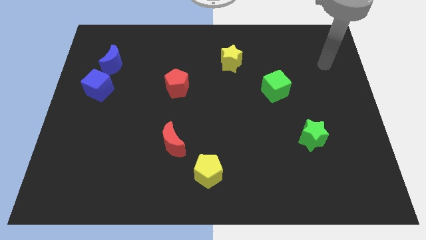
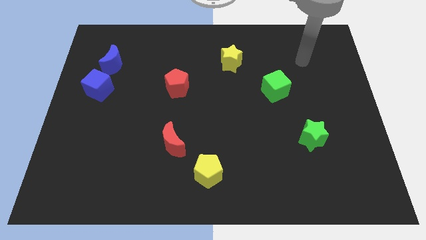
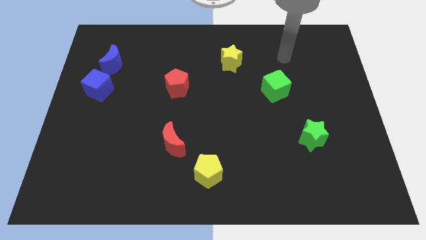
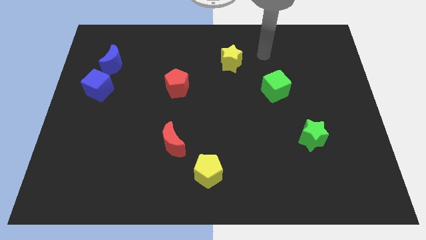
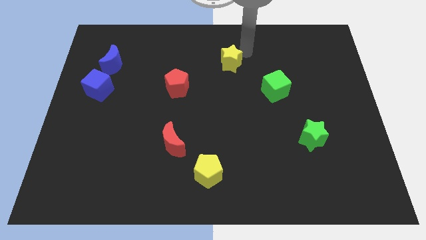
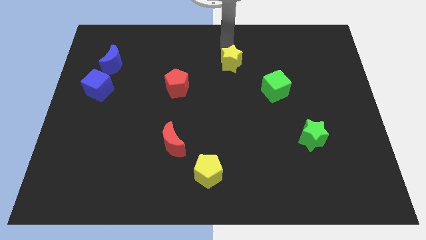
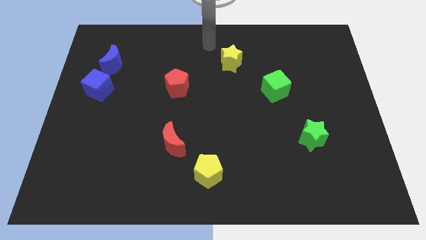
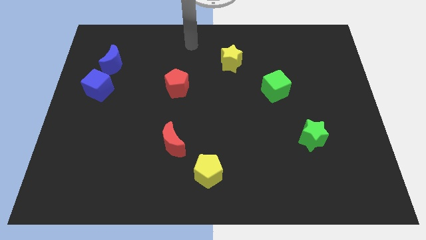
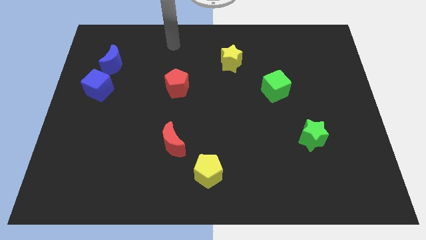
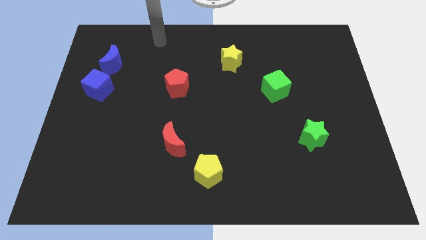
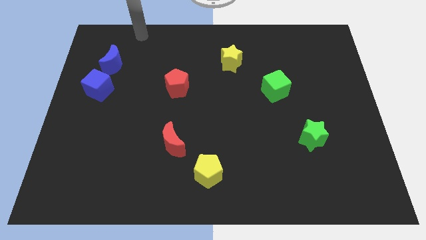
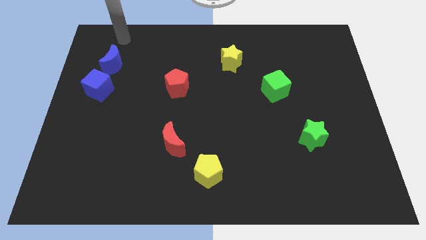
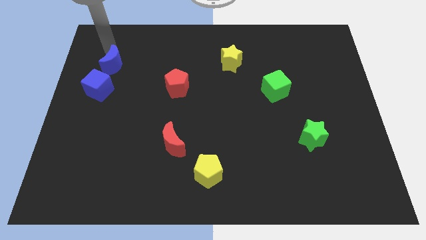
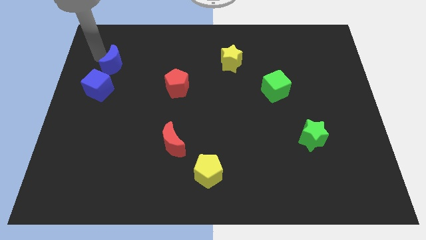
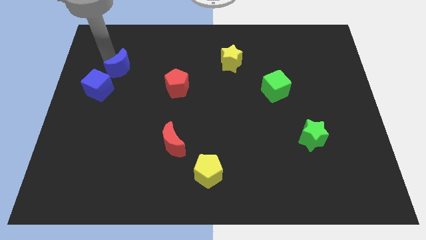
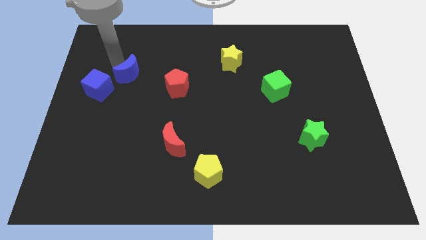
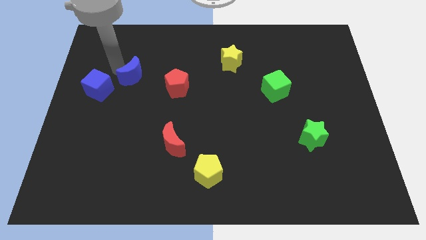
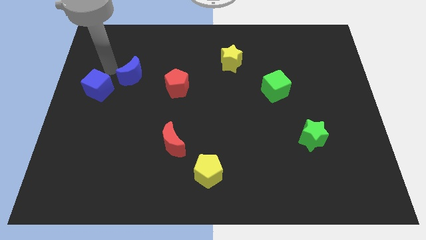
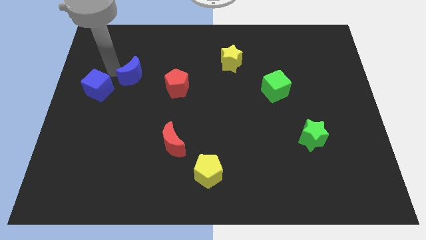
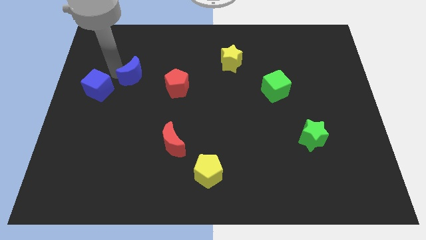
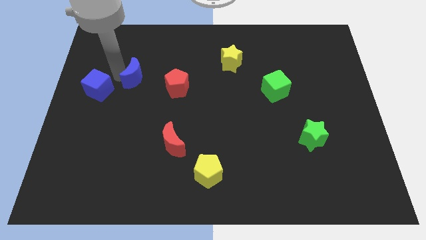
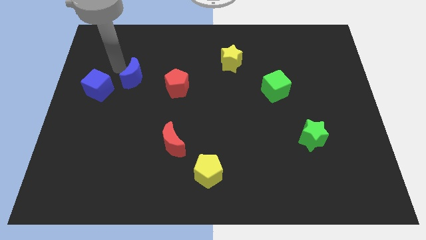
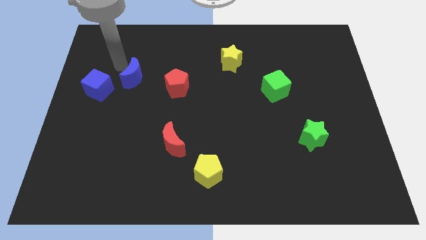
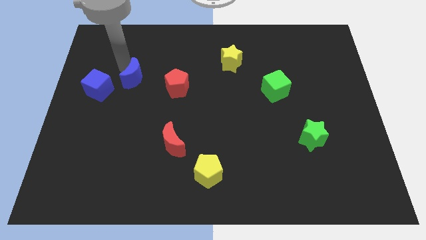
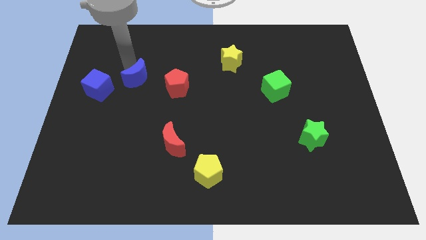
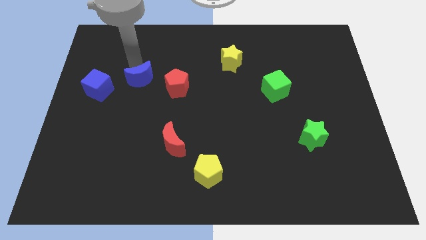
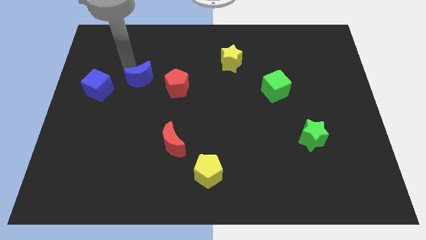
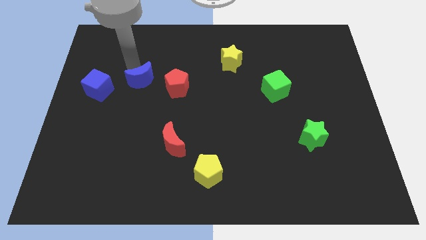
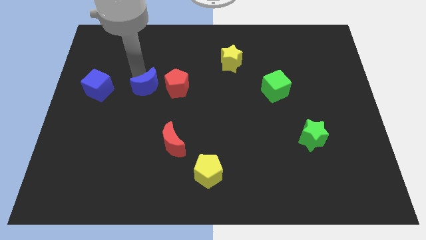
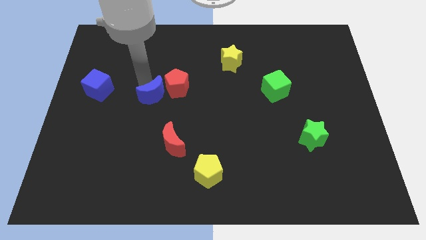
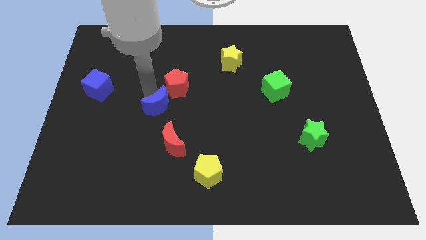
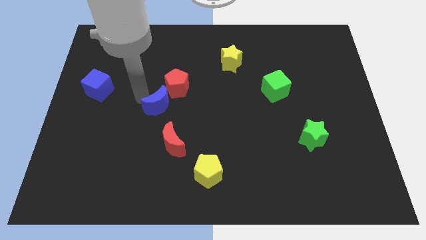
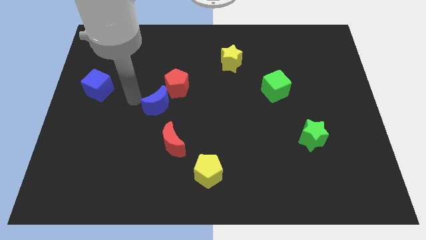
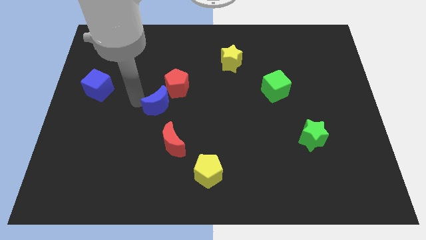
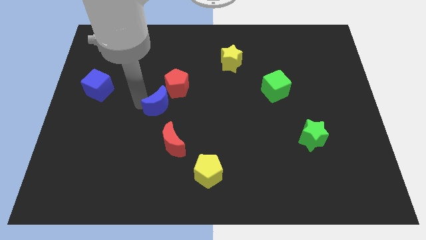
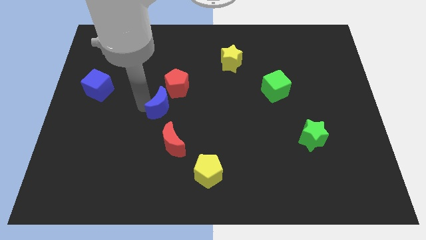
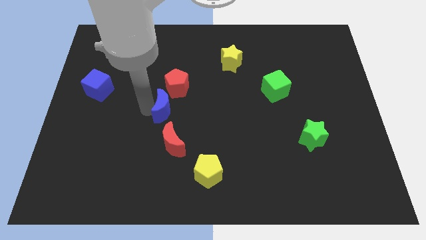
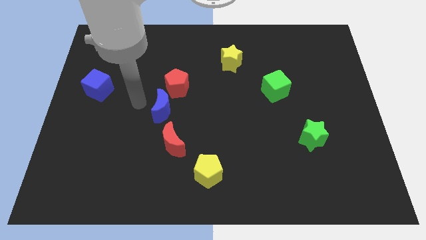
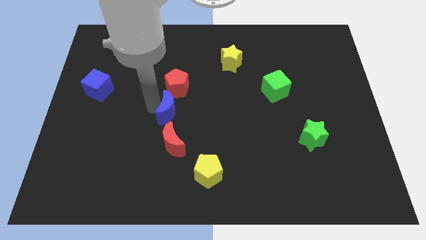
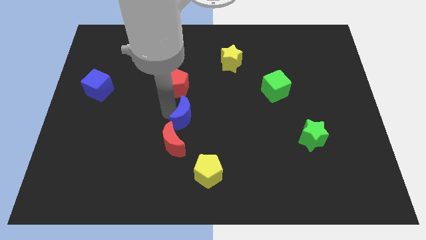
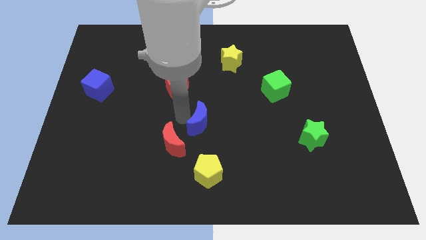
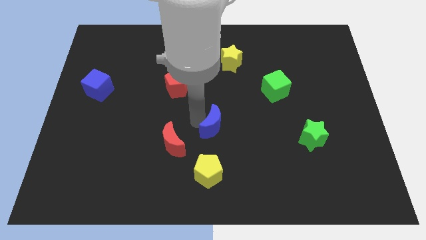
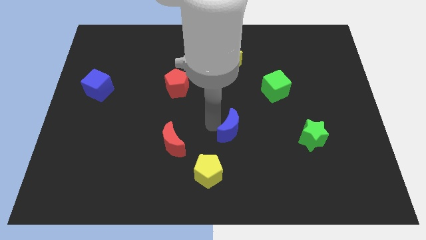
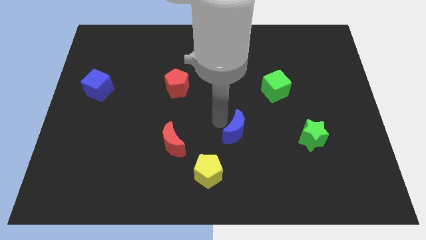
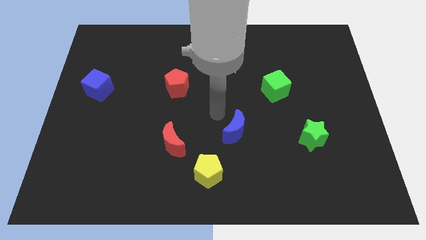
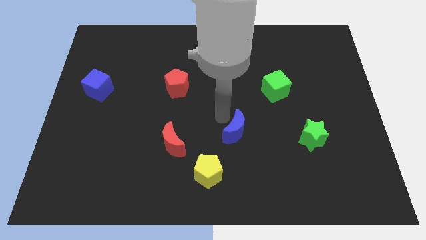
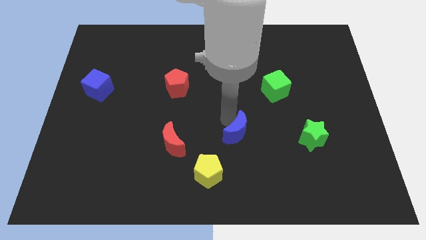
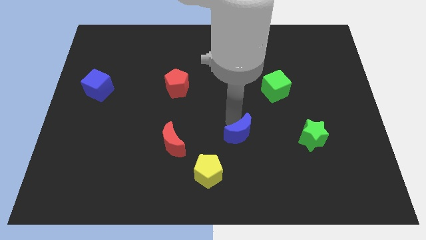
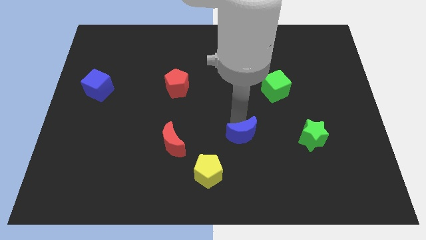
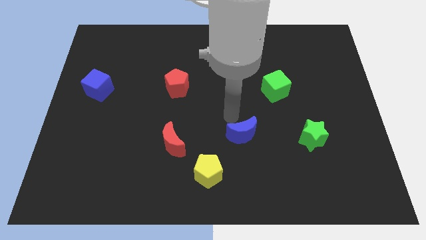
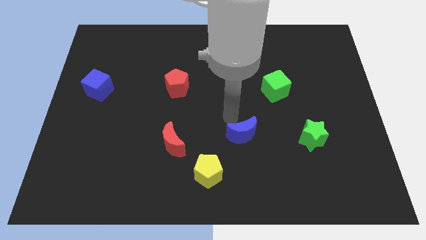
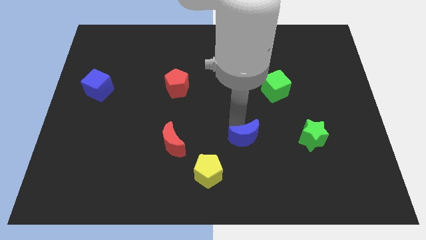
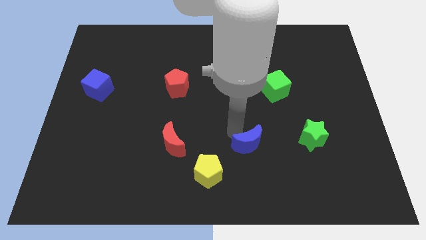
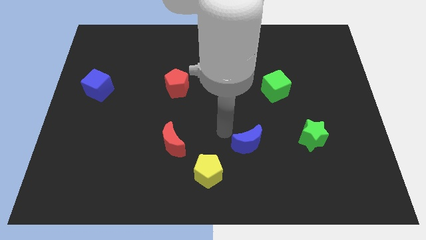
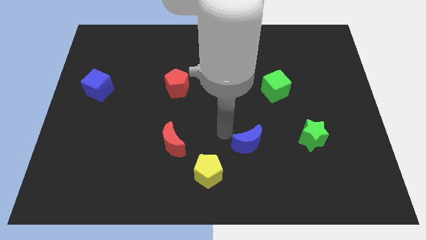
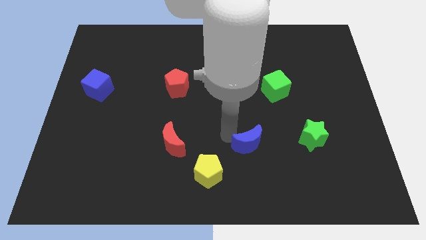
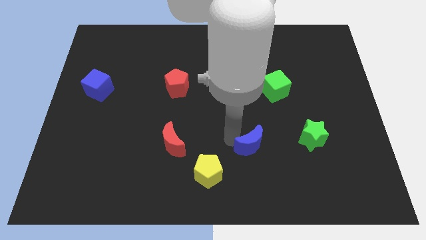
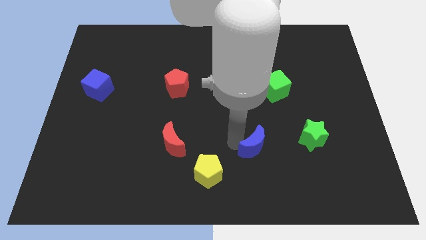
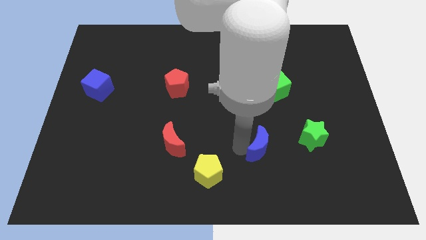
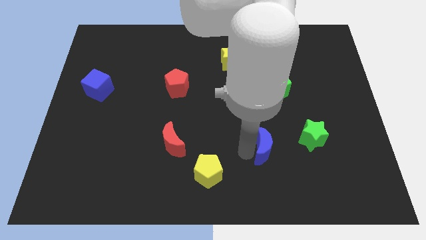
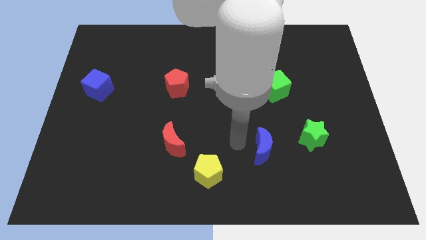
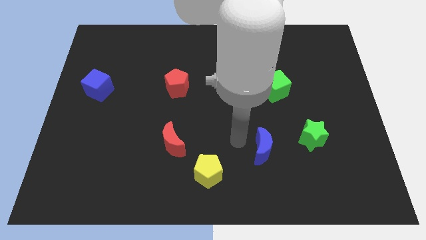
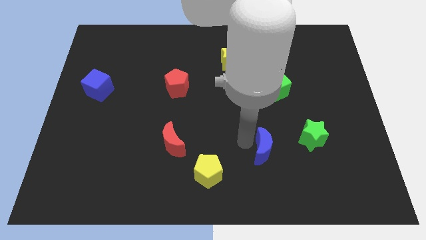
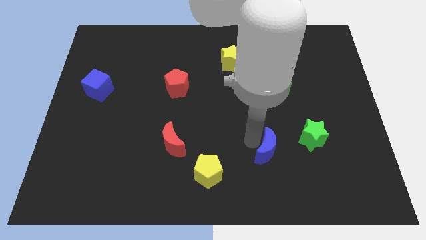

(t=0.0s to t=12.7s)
push the blue moon to the bottom left side of the green star

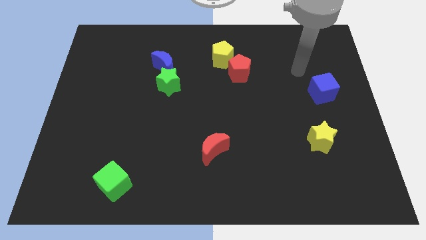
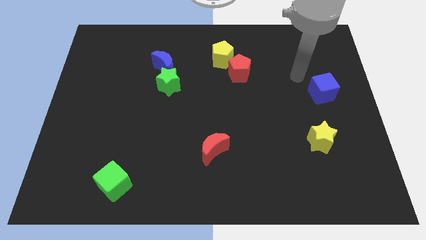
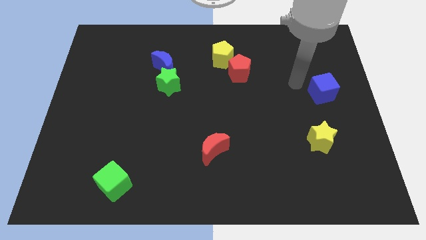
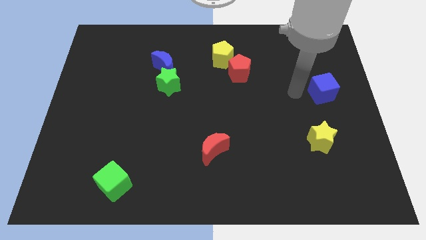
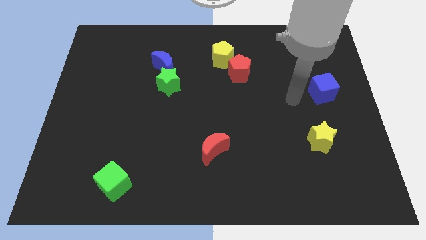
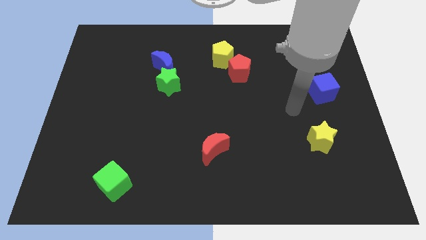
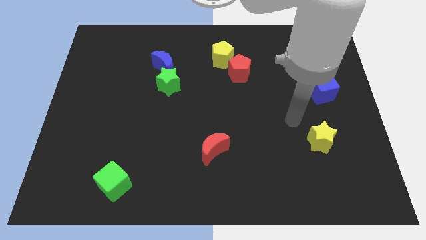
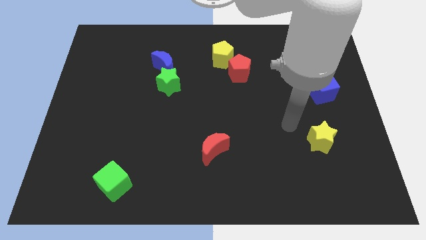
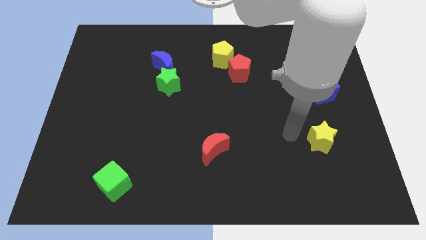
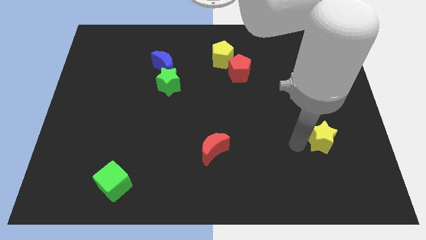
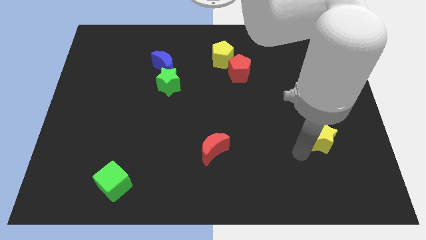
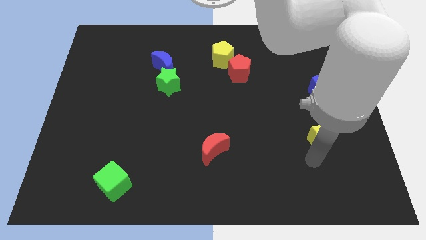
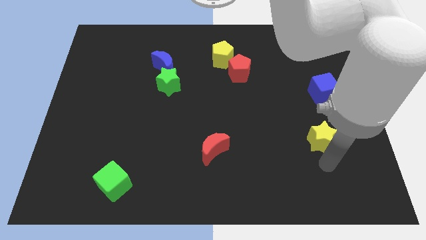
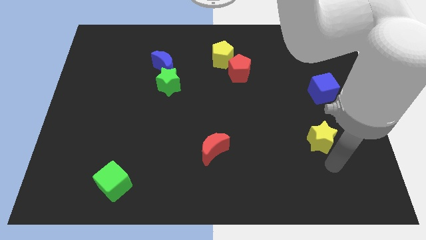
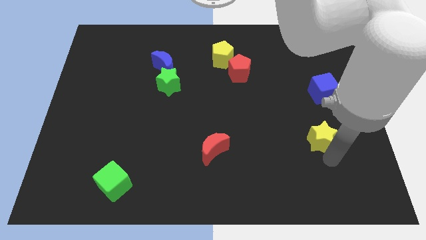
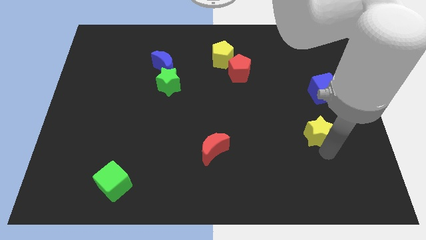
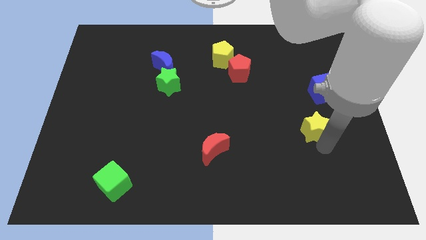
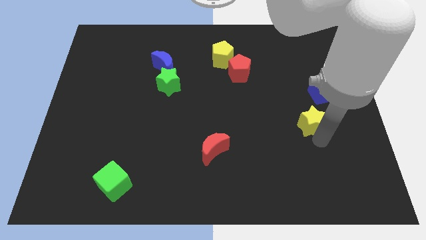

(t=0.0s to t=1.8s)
slide the yellow star diagonally down and to the left of the blue cube
